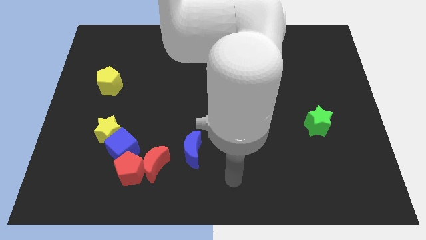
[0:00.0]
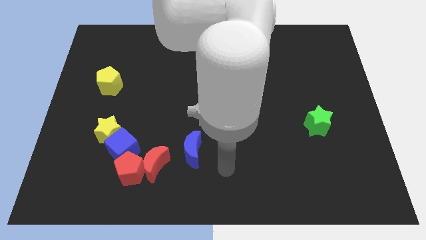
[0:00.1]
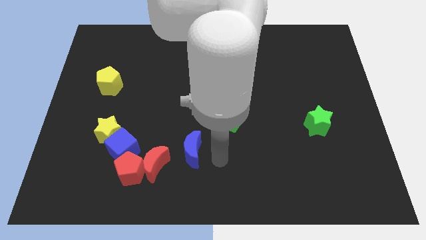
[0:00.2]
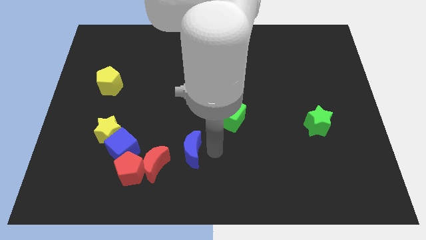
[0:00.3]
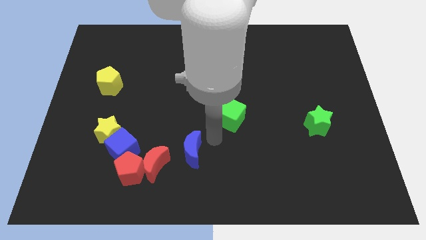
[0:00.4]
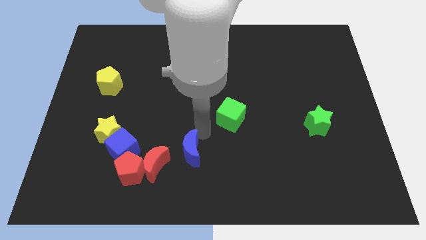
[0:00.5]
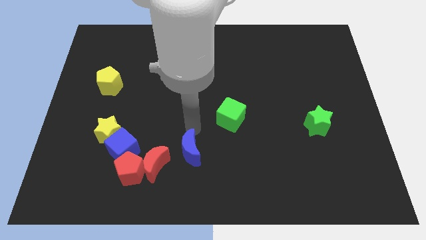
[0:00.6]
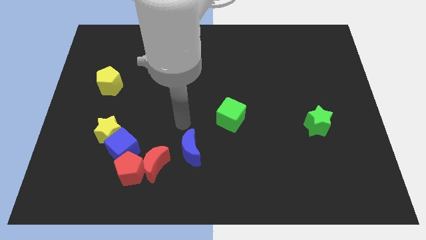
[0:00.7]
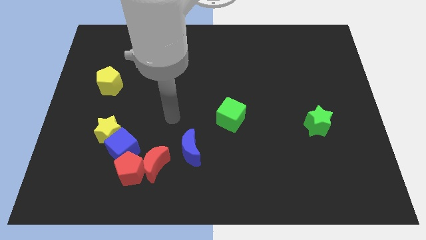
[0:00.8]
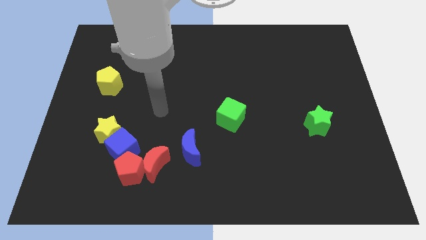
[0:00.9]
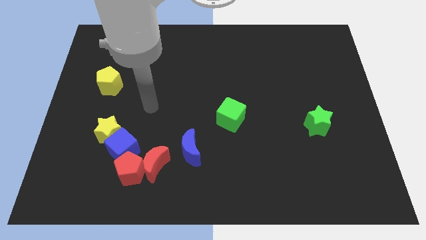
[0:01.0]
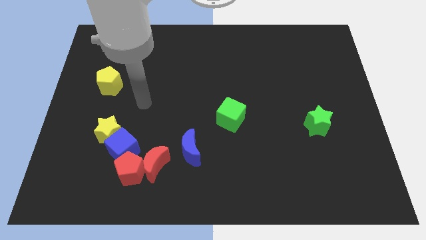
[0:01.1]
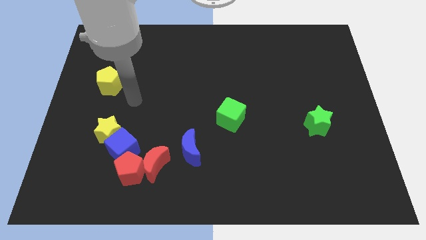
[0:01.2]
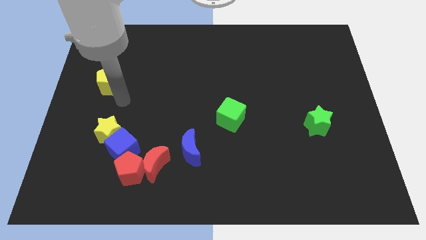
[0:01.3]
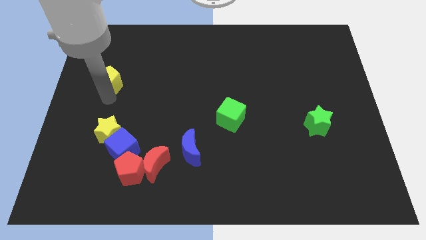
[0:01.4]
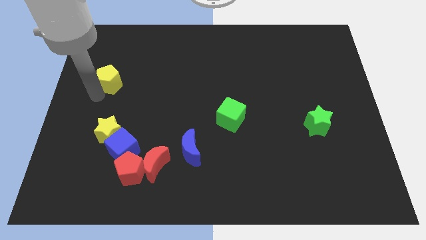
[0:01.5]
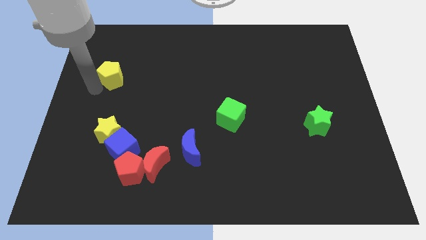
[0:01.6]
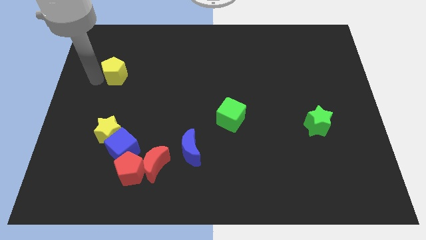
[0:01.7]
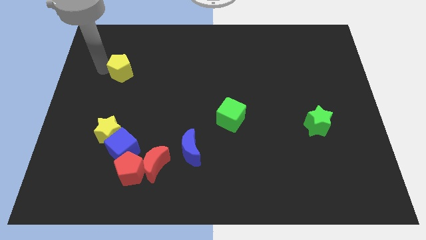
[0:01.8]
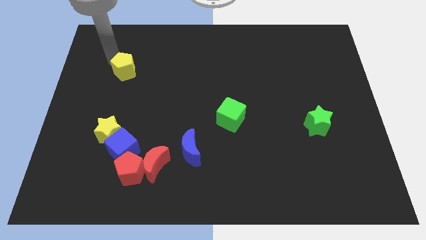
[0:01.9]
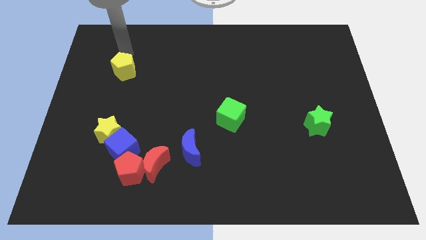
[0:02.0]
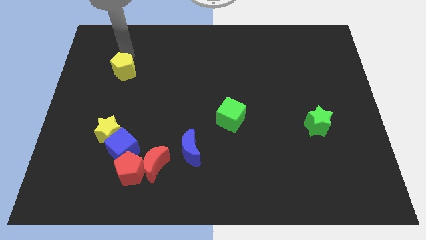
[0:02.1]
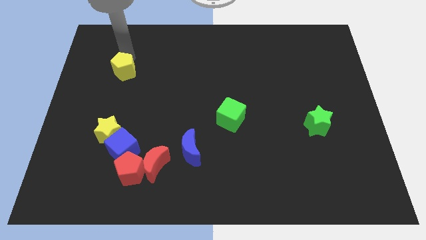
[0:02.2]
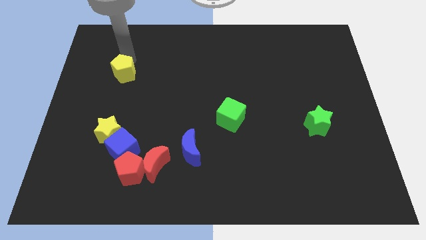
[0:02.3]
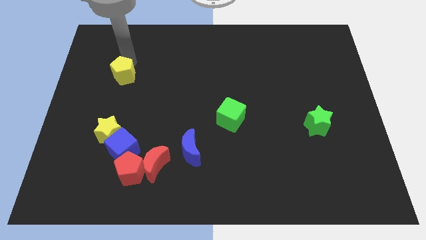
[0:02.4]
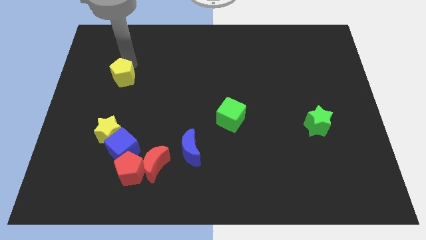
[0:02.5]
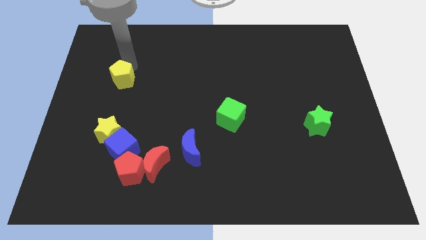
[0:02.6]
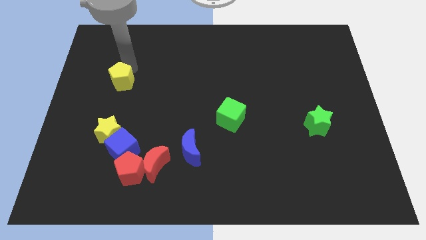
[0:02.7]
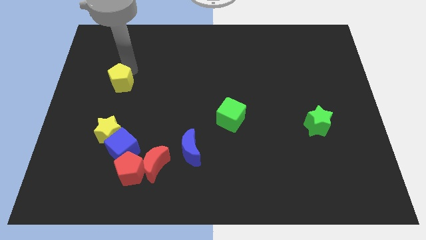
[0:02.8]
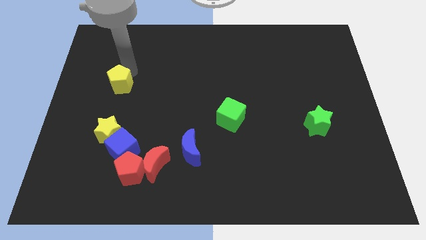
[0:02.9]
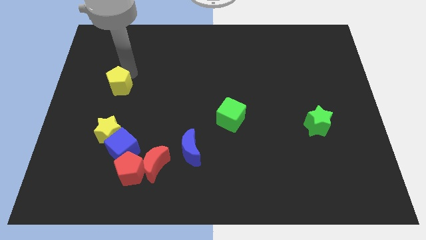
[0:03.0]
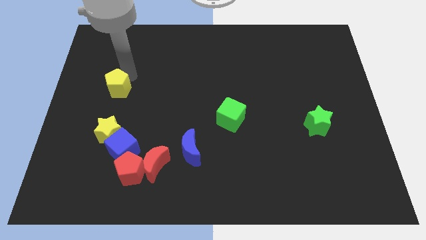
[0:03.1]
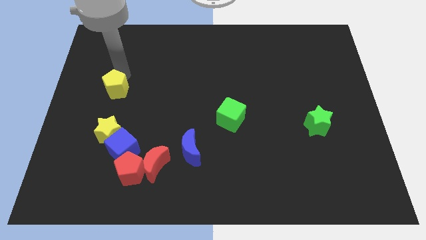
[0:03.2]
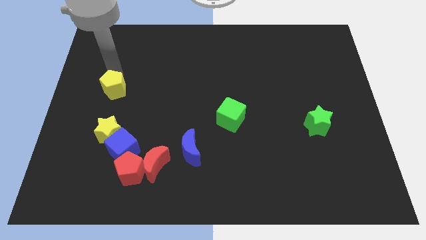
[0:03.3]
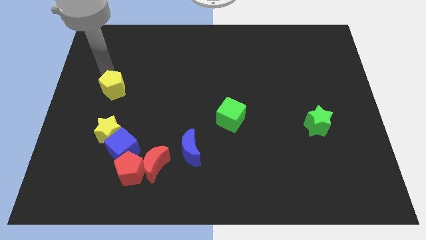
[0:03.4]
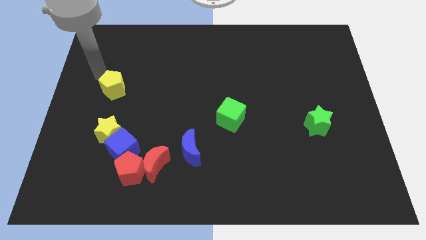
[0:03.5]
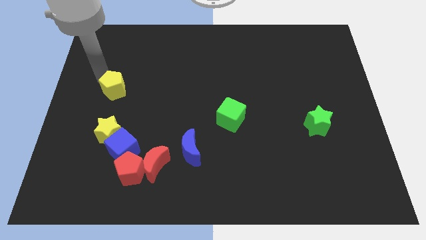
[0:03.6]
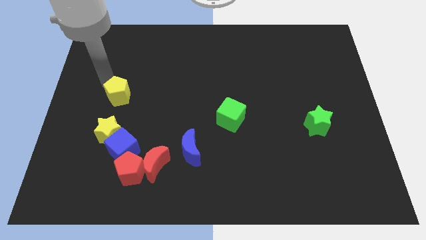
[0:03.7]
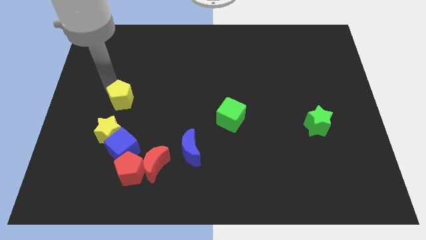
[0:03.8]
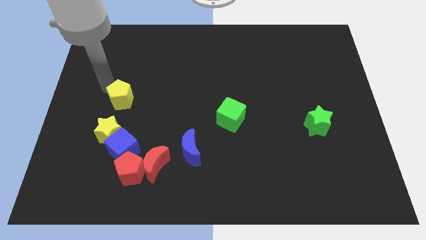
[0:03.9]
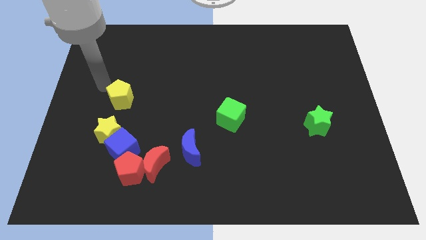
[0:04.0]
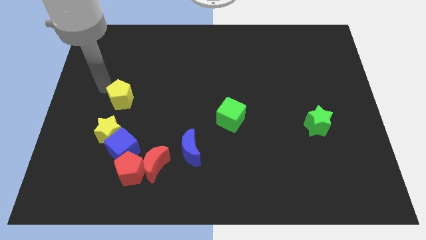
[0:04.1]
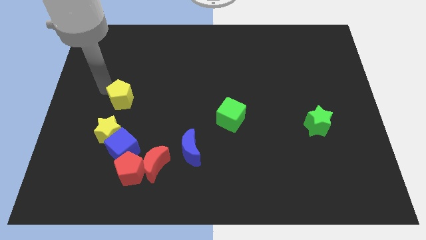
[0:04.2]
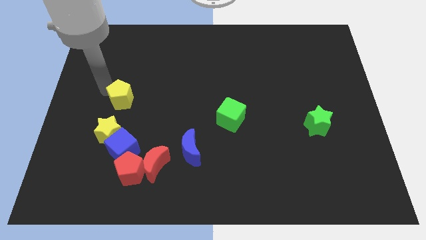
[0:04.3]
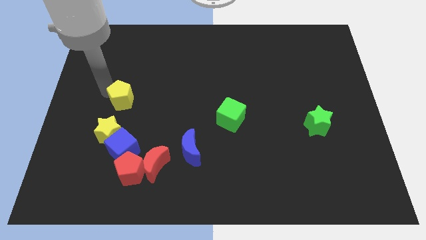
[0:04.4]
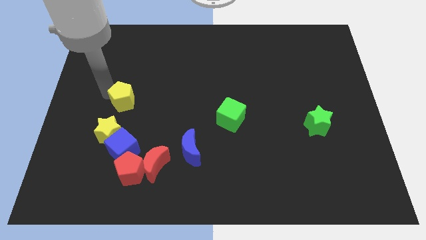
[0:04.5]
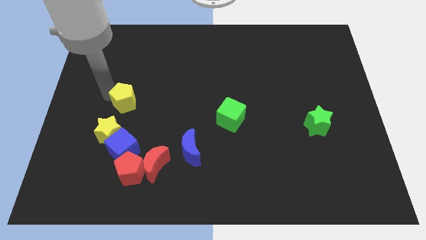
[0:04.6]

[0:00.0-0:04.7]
push the yellow pentagon slightly downwards and right

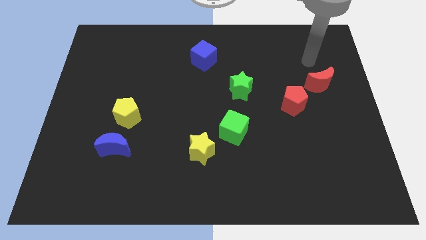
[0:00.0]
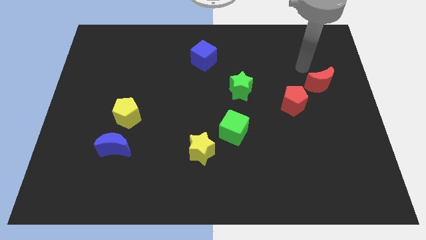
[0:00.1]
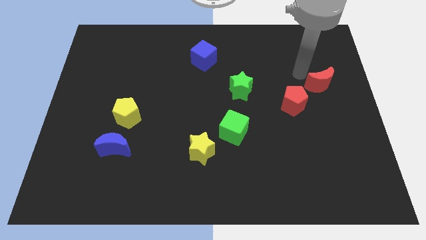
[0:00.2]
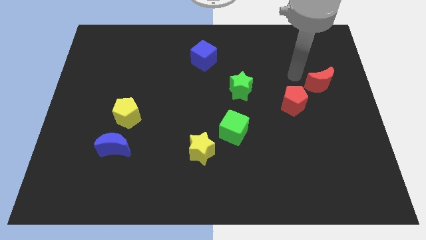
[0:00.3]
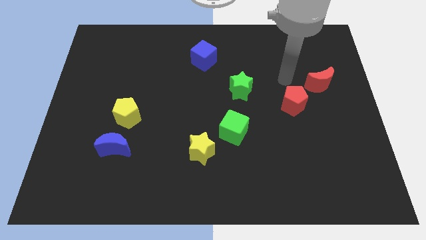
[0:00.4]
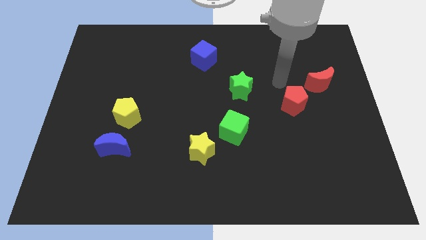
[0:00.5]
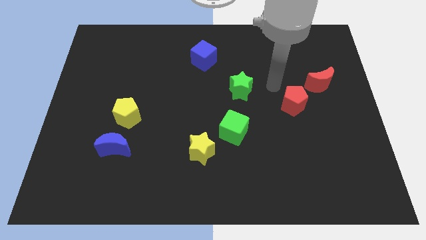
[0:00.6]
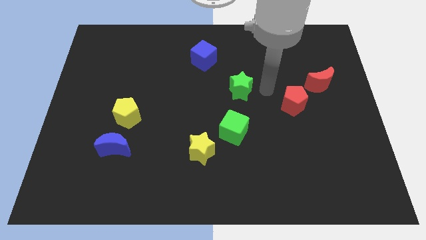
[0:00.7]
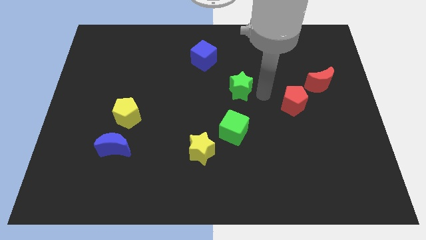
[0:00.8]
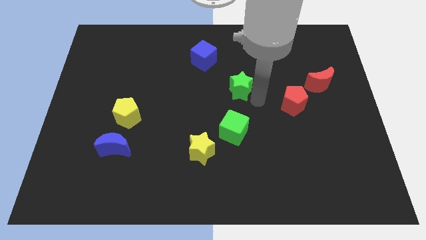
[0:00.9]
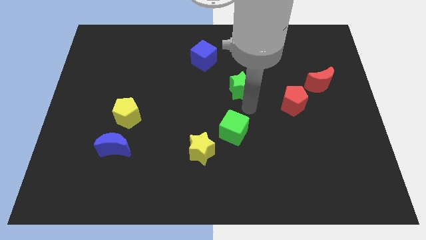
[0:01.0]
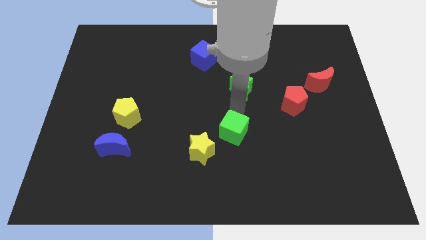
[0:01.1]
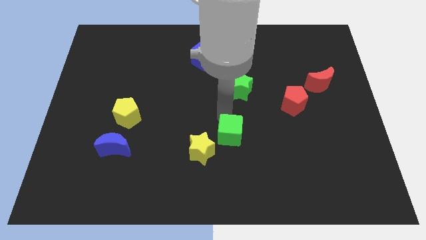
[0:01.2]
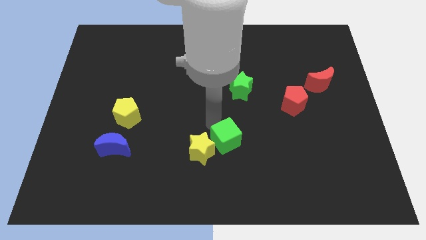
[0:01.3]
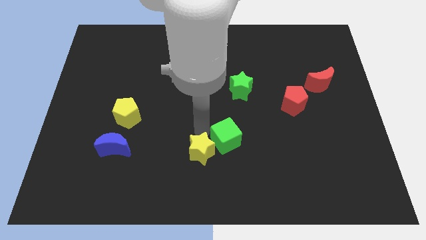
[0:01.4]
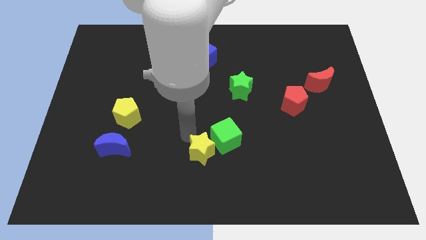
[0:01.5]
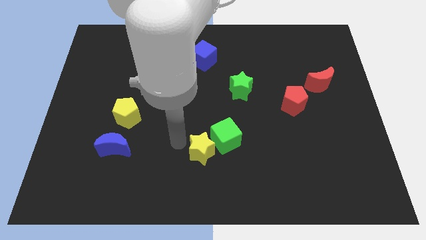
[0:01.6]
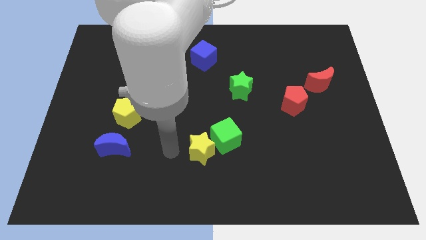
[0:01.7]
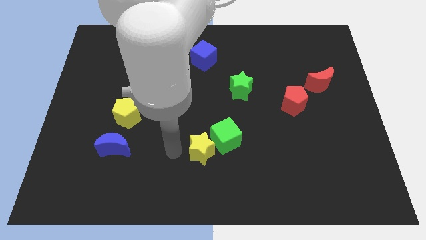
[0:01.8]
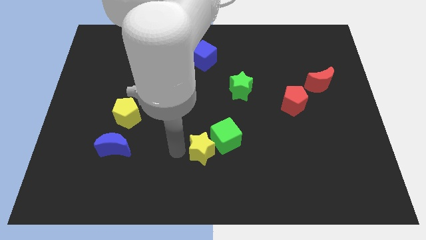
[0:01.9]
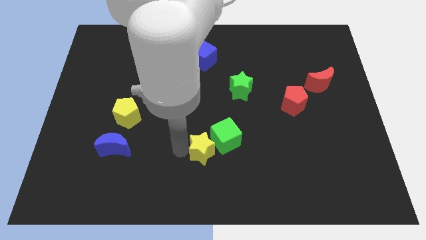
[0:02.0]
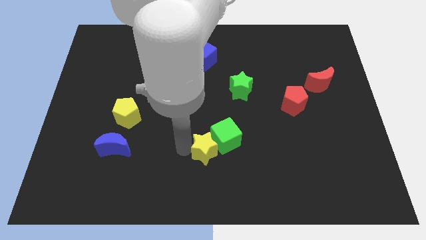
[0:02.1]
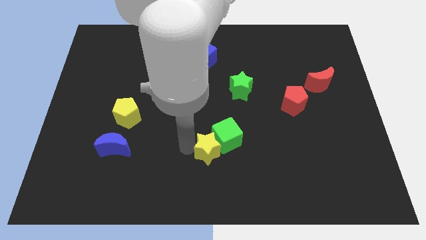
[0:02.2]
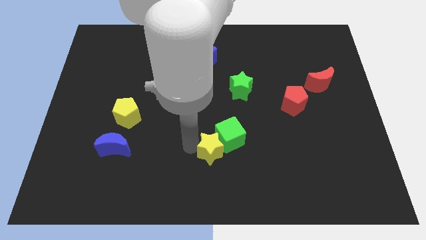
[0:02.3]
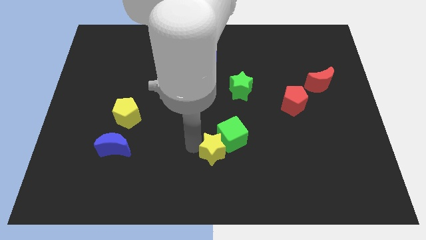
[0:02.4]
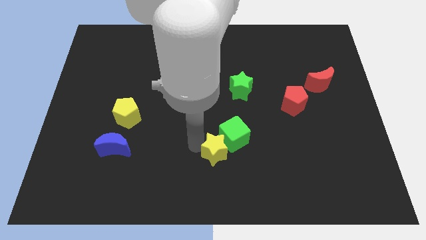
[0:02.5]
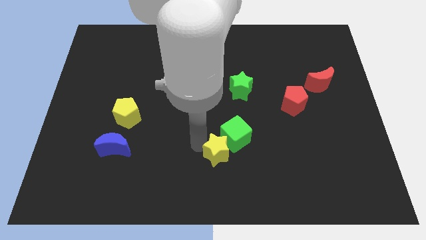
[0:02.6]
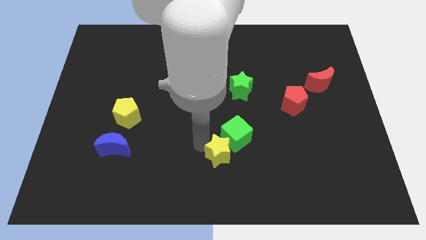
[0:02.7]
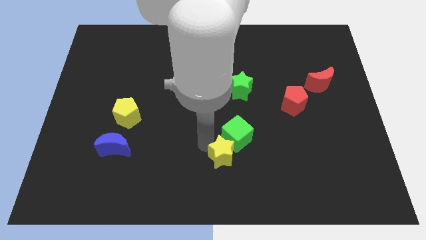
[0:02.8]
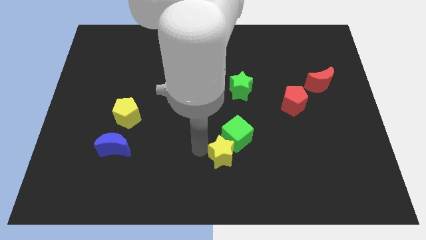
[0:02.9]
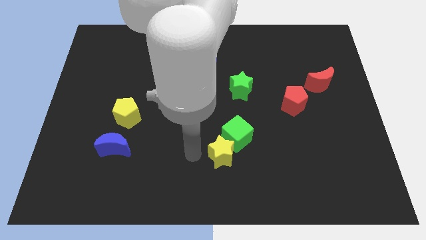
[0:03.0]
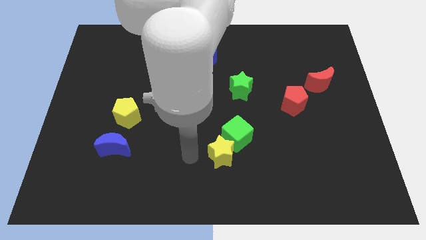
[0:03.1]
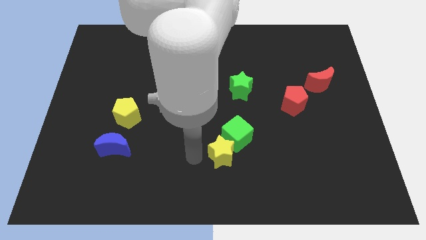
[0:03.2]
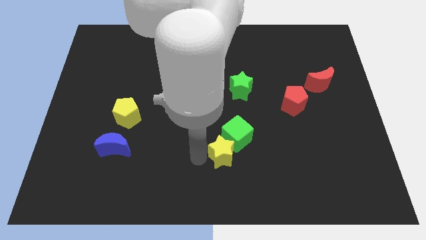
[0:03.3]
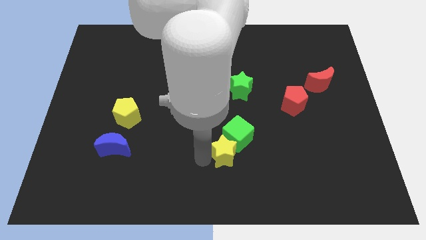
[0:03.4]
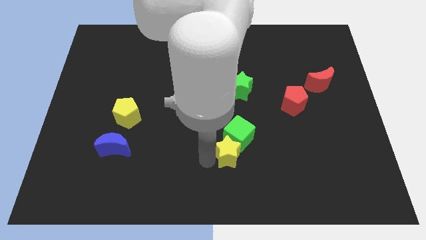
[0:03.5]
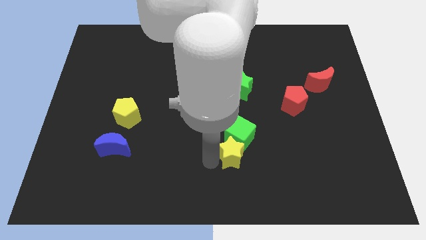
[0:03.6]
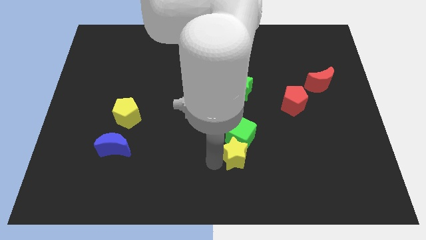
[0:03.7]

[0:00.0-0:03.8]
slide the yellow star to the right slightly
